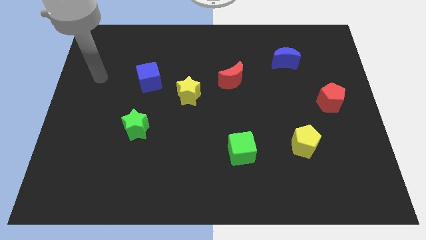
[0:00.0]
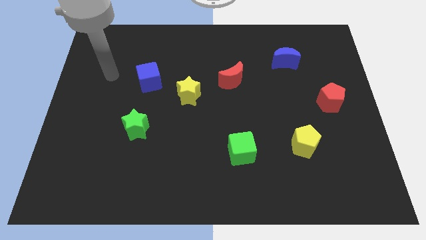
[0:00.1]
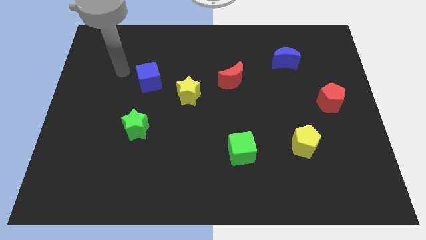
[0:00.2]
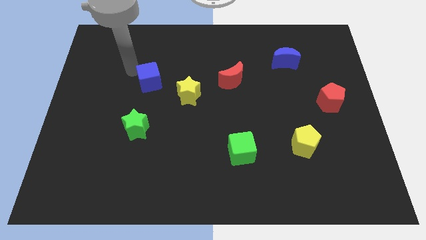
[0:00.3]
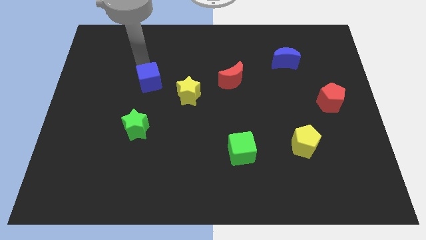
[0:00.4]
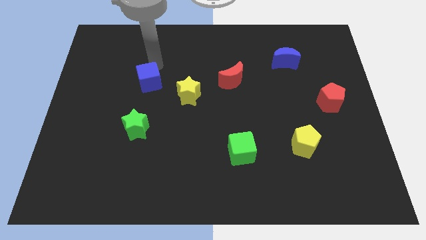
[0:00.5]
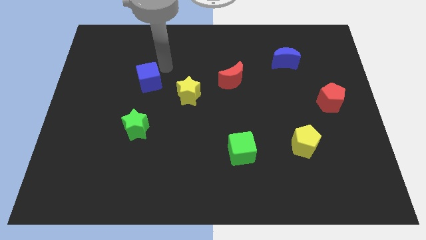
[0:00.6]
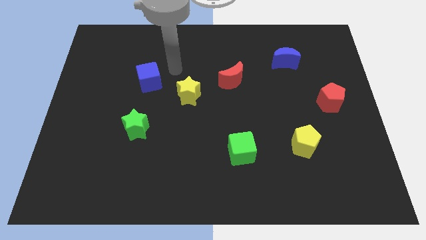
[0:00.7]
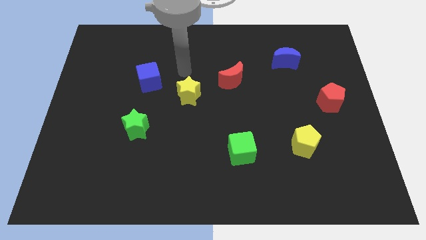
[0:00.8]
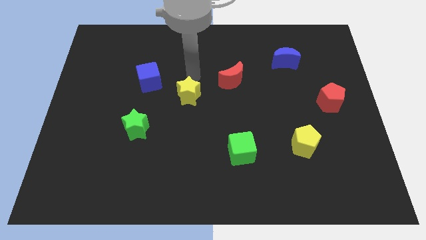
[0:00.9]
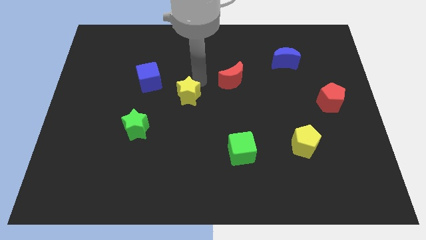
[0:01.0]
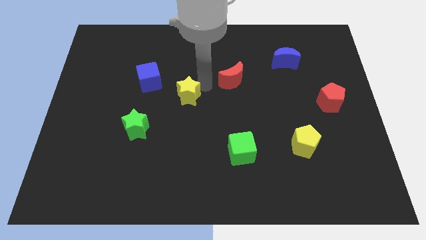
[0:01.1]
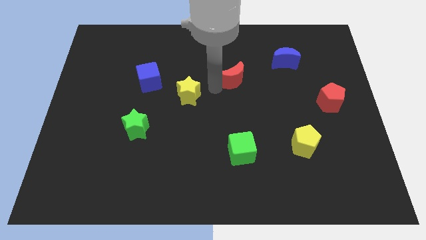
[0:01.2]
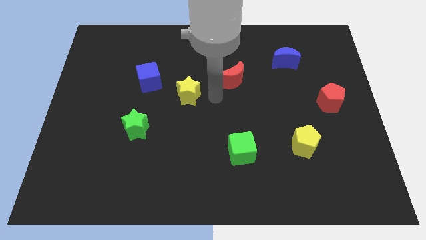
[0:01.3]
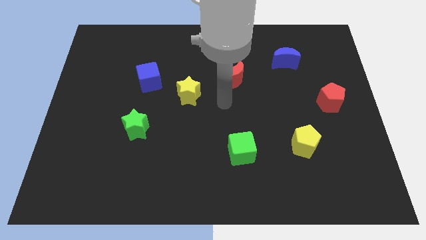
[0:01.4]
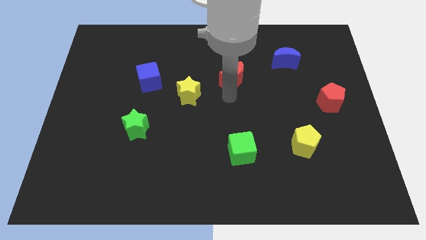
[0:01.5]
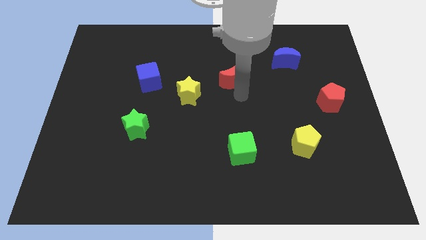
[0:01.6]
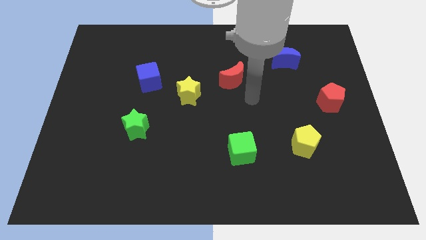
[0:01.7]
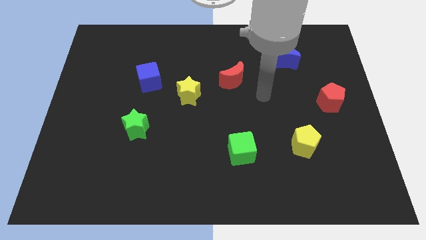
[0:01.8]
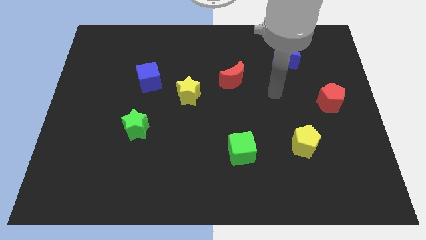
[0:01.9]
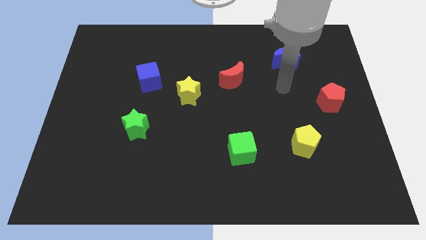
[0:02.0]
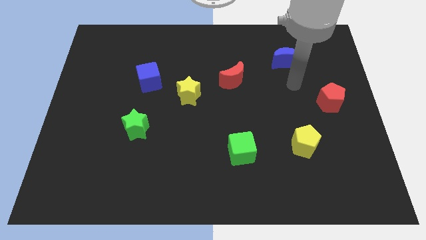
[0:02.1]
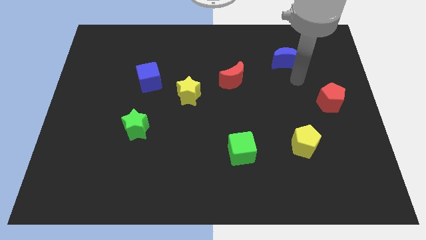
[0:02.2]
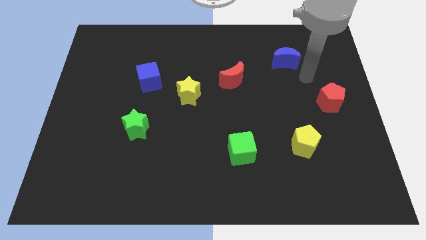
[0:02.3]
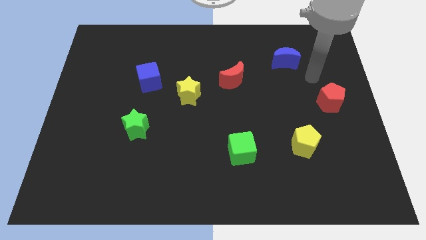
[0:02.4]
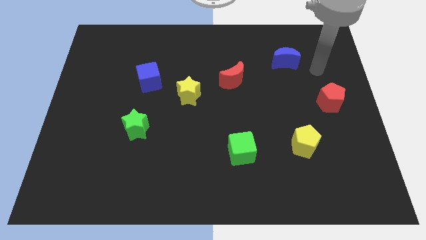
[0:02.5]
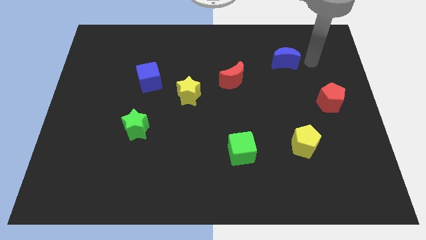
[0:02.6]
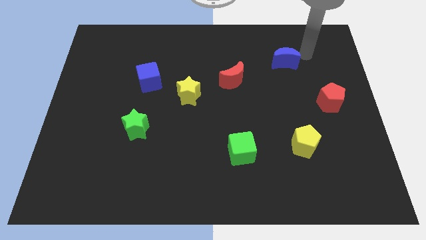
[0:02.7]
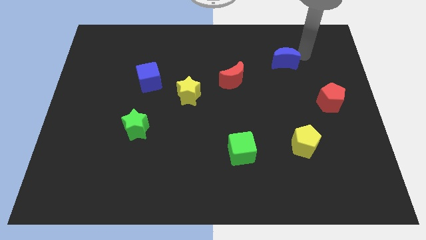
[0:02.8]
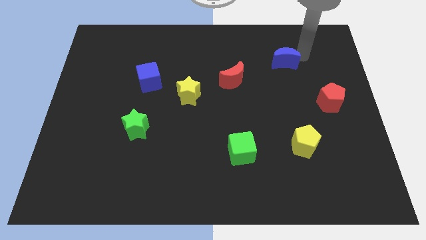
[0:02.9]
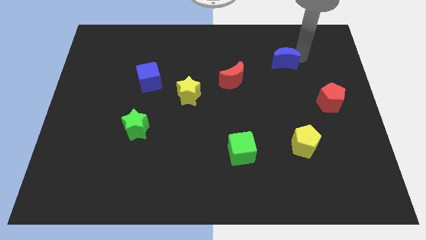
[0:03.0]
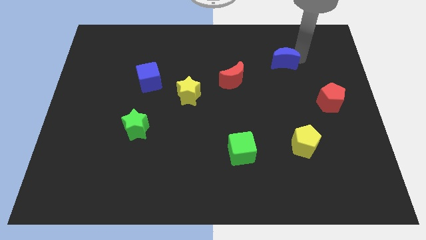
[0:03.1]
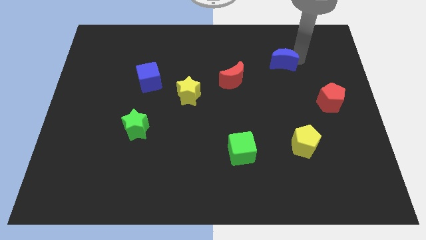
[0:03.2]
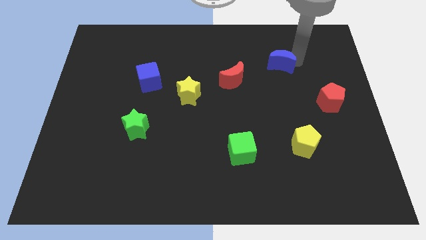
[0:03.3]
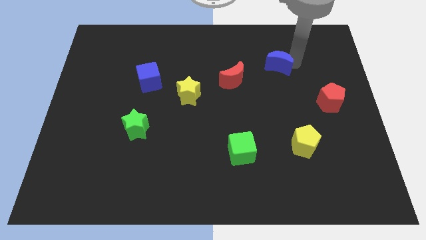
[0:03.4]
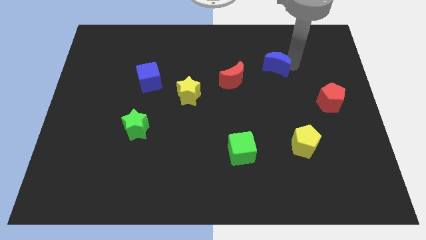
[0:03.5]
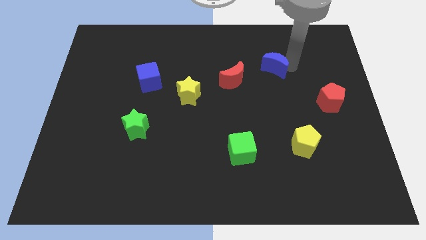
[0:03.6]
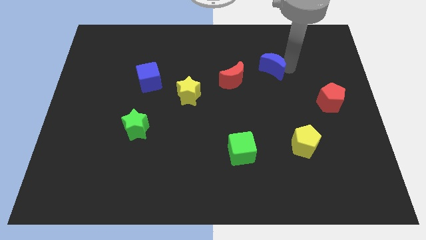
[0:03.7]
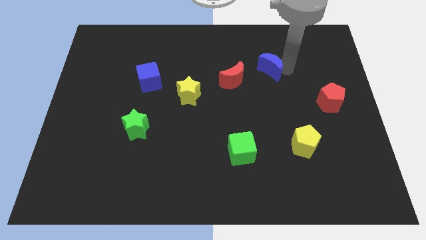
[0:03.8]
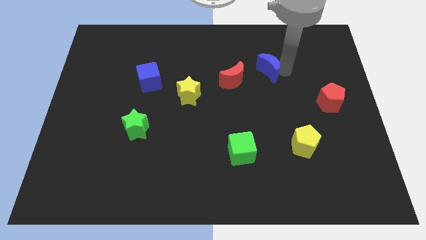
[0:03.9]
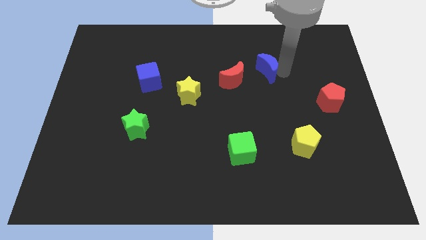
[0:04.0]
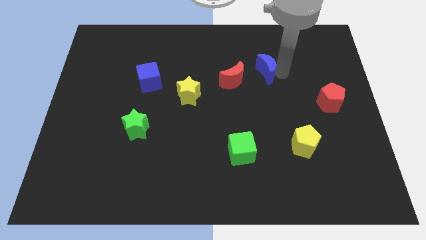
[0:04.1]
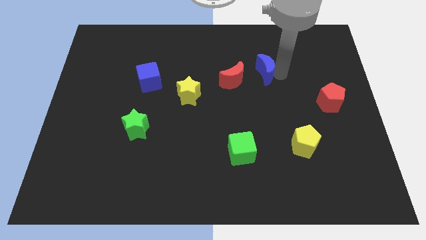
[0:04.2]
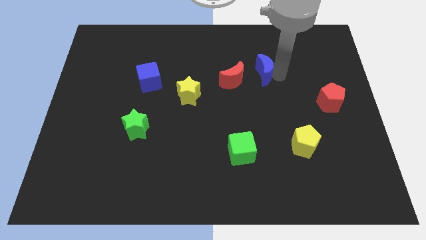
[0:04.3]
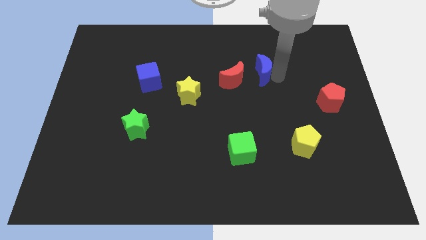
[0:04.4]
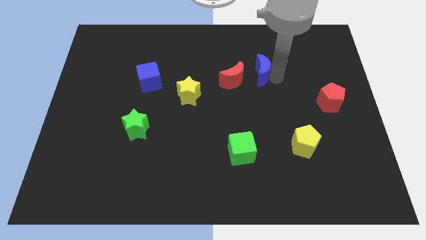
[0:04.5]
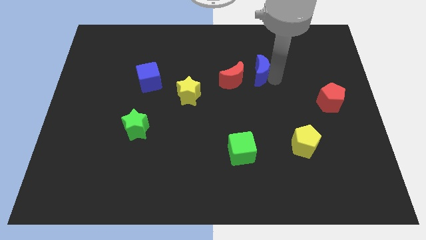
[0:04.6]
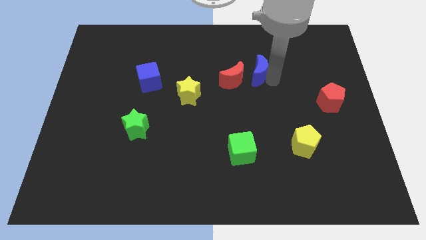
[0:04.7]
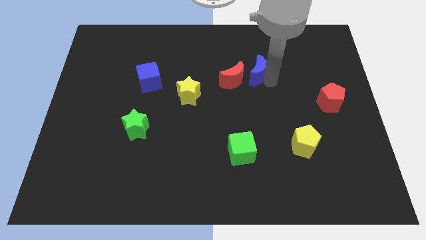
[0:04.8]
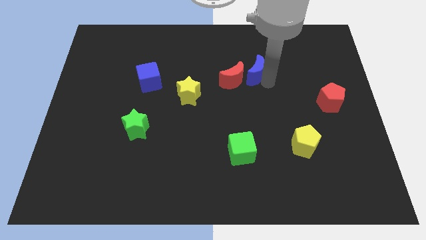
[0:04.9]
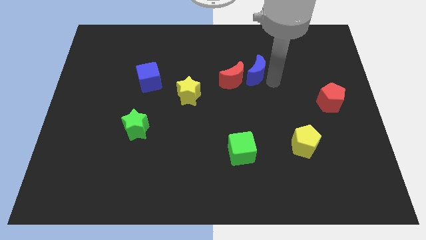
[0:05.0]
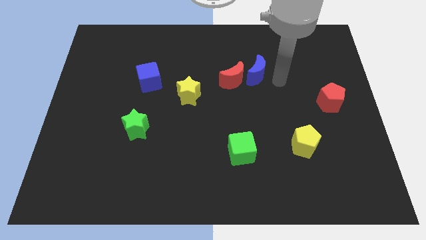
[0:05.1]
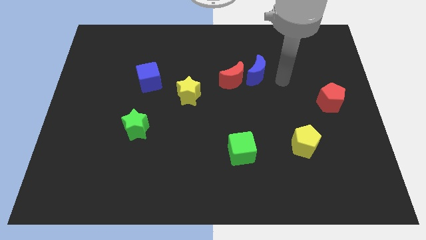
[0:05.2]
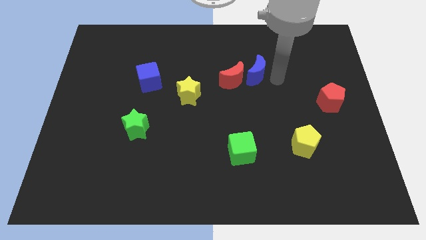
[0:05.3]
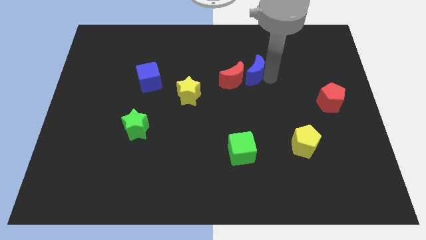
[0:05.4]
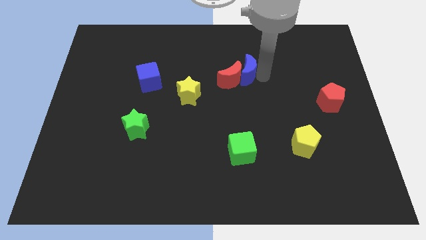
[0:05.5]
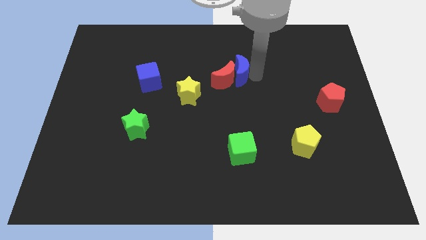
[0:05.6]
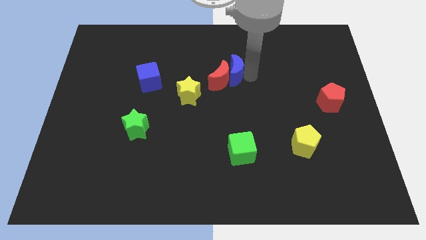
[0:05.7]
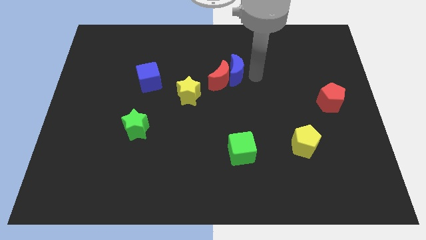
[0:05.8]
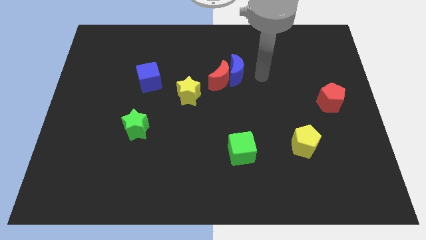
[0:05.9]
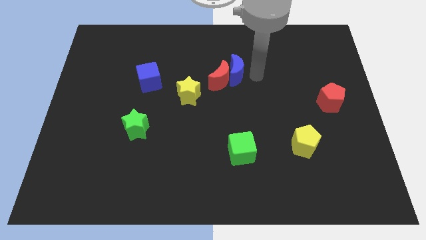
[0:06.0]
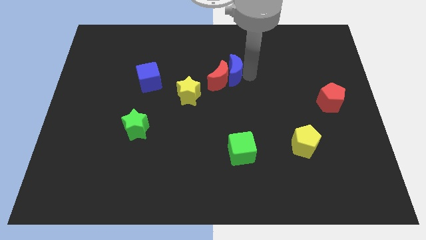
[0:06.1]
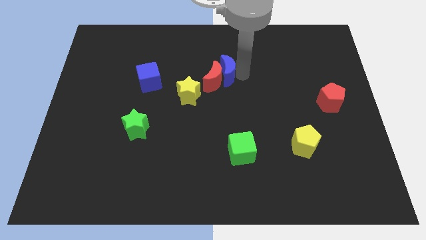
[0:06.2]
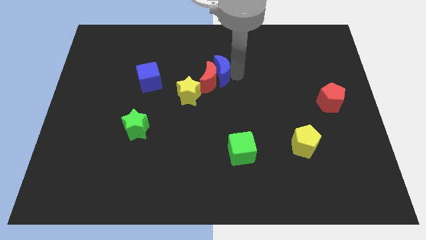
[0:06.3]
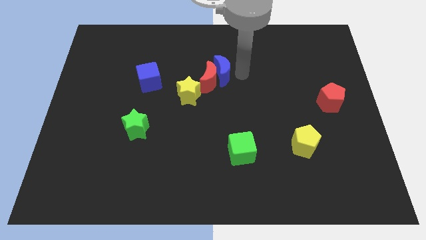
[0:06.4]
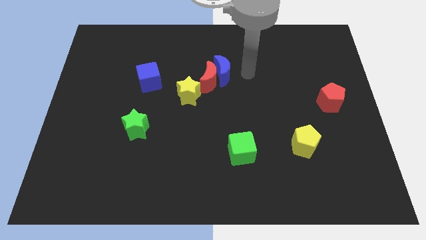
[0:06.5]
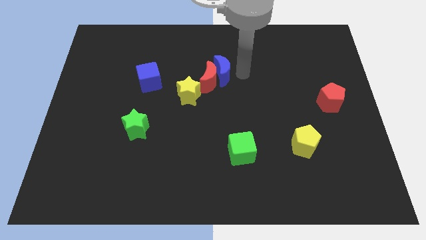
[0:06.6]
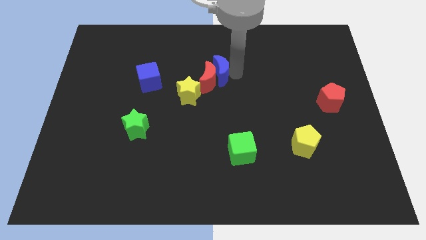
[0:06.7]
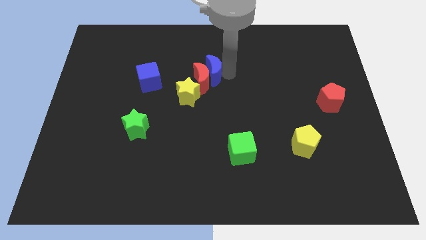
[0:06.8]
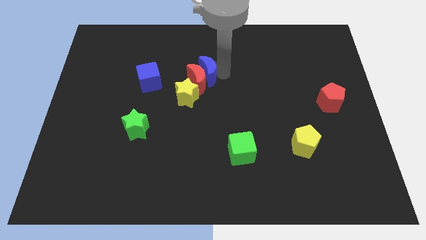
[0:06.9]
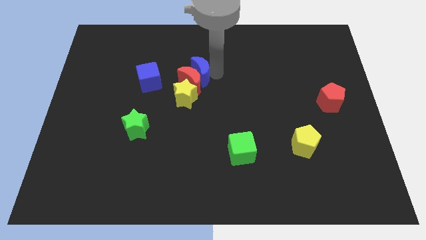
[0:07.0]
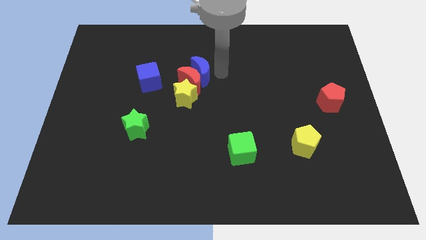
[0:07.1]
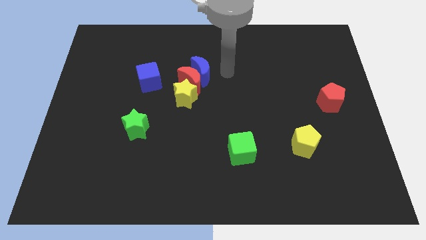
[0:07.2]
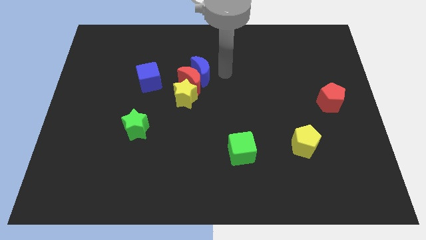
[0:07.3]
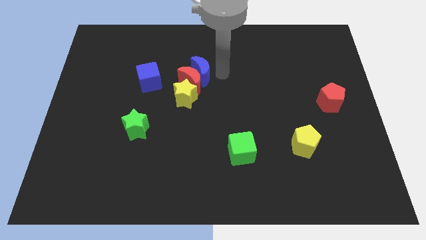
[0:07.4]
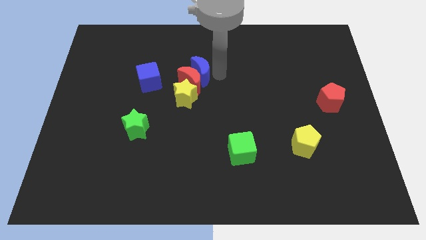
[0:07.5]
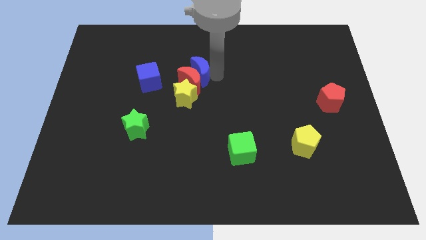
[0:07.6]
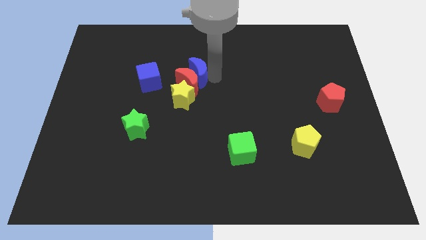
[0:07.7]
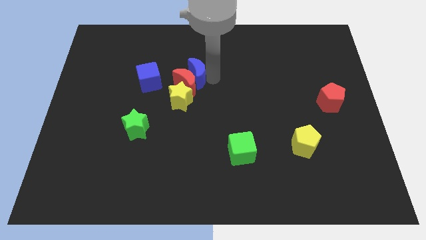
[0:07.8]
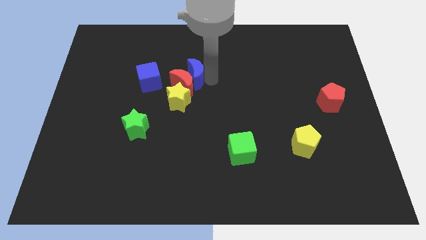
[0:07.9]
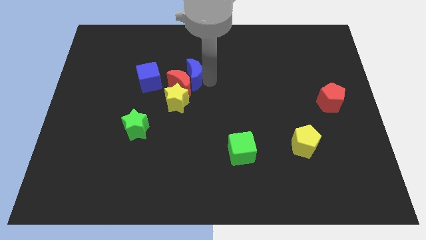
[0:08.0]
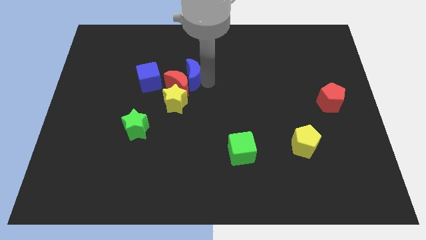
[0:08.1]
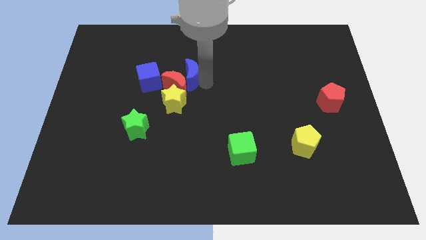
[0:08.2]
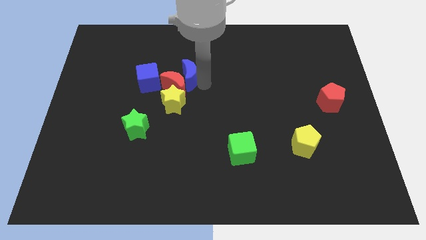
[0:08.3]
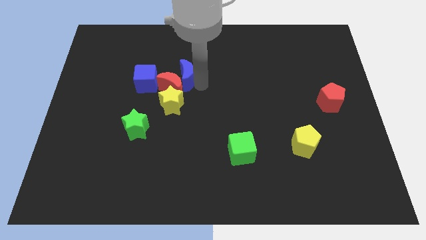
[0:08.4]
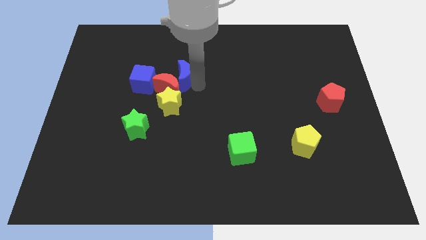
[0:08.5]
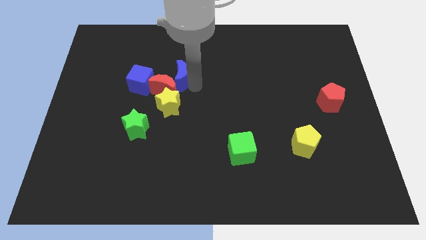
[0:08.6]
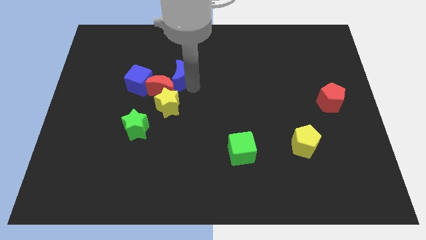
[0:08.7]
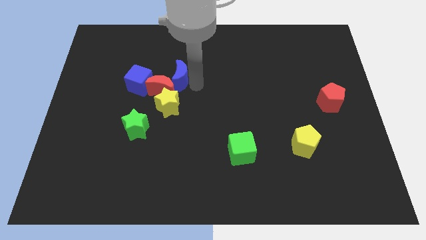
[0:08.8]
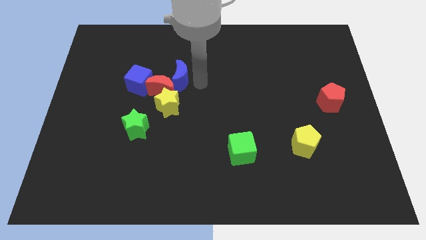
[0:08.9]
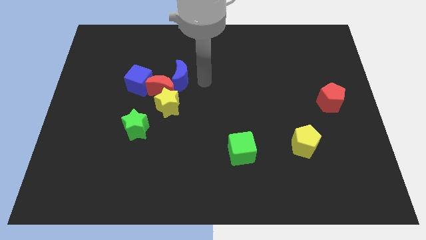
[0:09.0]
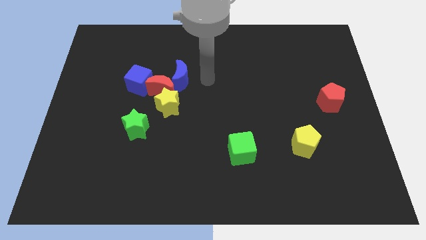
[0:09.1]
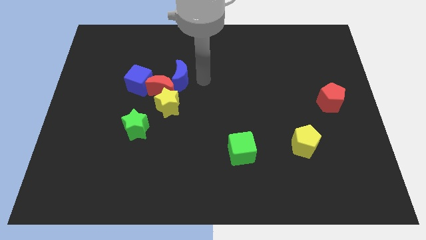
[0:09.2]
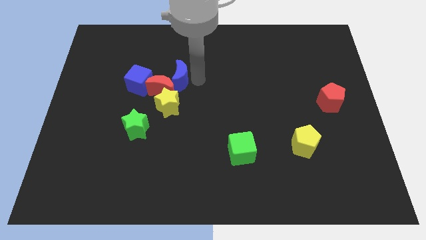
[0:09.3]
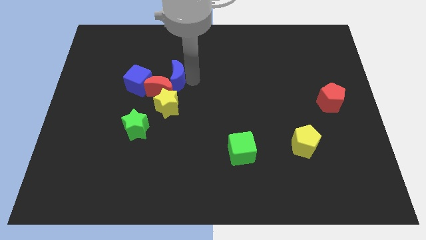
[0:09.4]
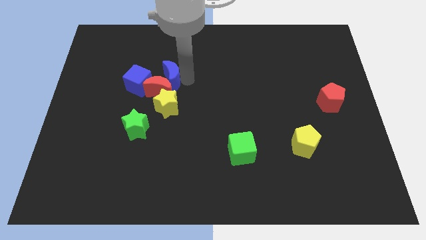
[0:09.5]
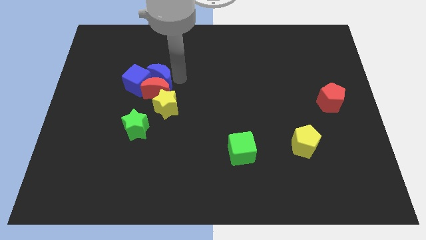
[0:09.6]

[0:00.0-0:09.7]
push the blue moon close to the blue cube
